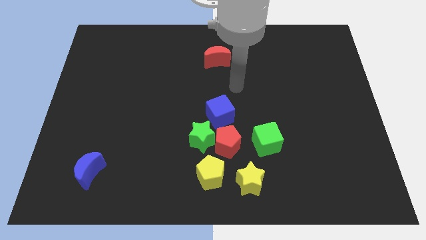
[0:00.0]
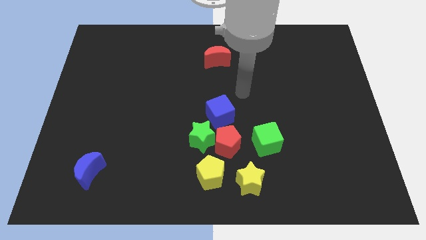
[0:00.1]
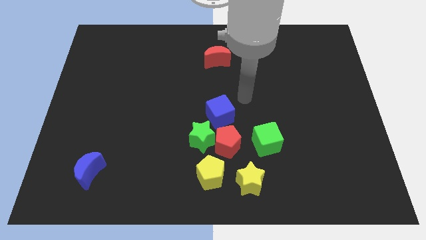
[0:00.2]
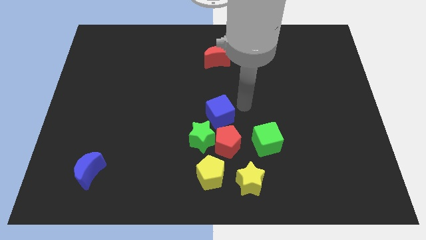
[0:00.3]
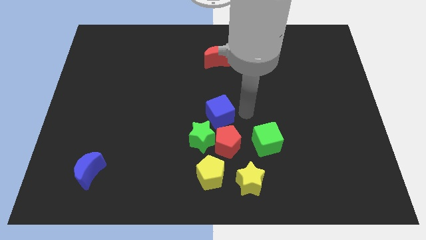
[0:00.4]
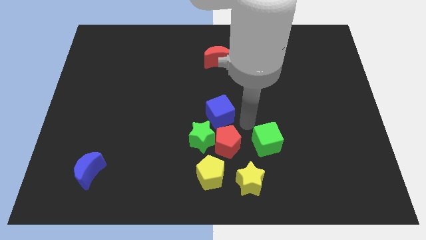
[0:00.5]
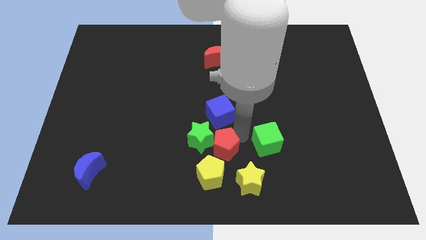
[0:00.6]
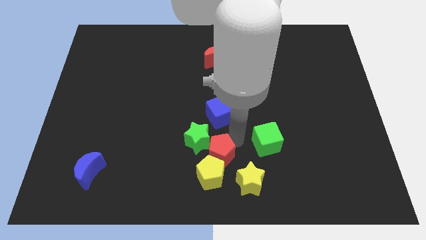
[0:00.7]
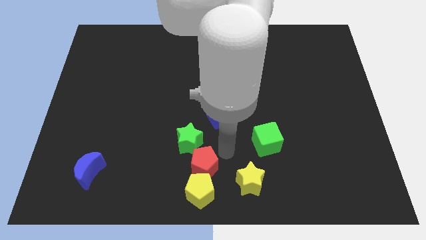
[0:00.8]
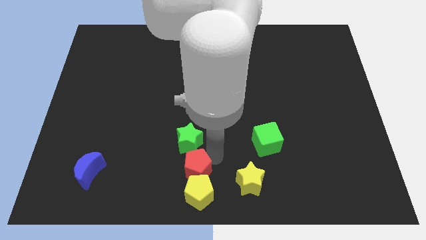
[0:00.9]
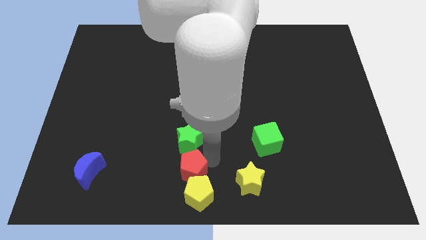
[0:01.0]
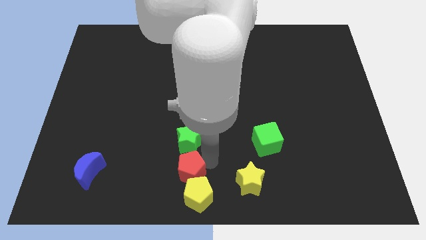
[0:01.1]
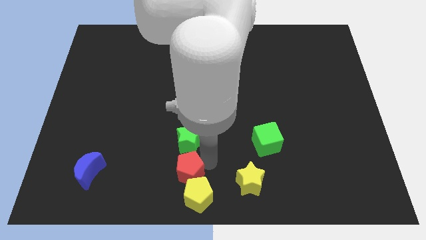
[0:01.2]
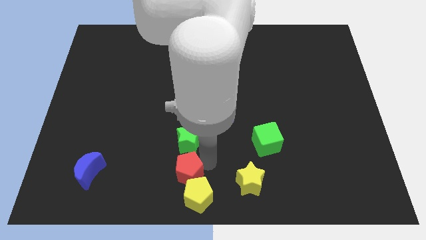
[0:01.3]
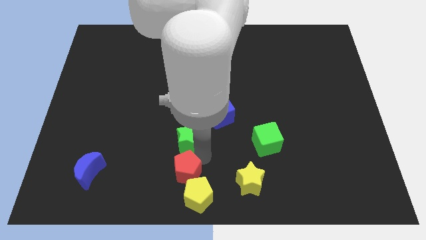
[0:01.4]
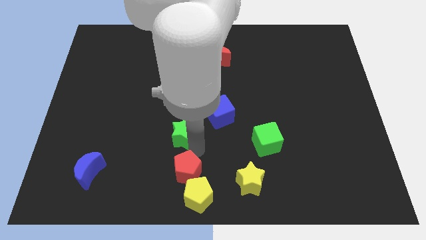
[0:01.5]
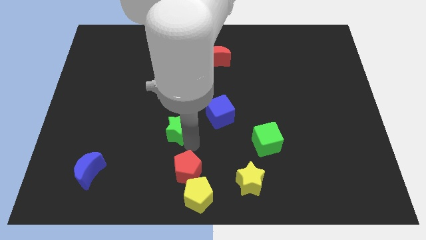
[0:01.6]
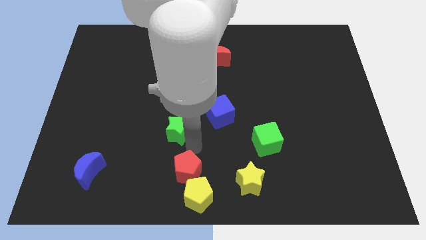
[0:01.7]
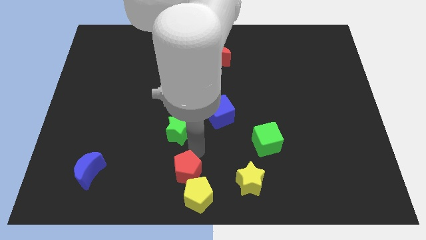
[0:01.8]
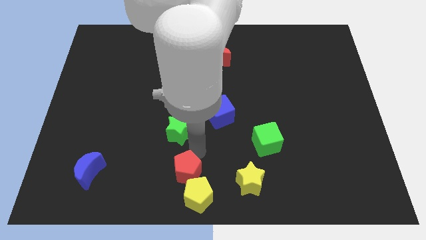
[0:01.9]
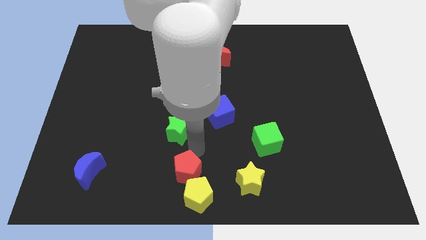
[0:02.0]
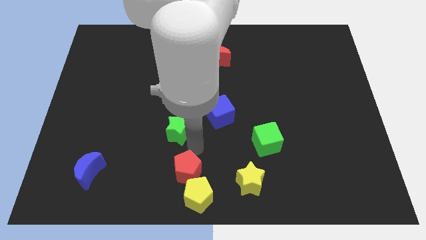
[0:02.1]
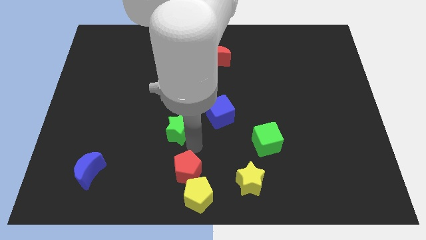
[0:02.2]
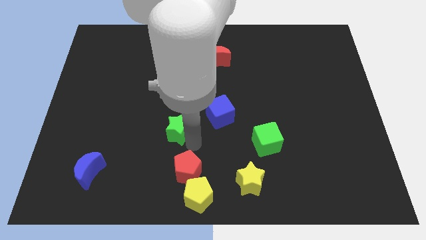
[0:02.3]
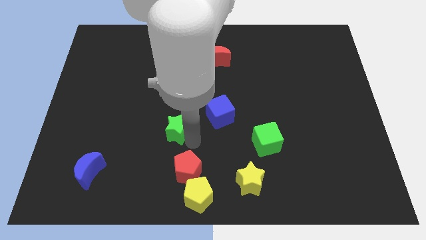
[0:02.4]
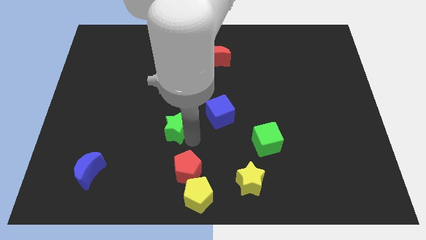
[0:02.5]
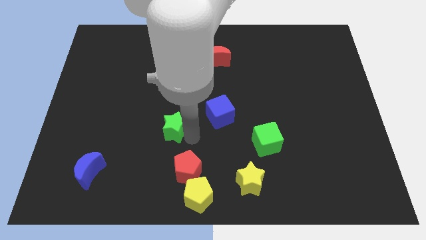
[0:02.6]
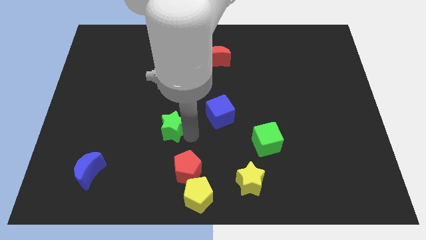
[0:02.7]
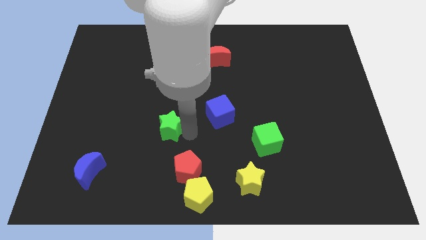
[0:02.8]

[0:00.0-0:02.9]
separate the green star from the red pentagon, blue cube, and yellow pentagon

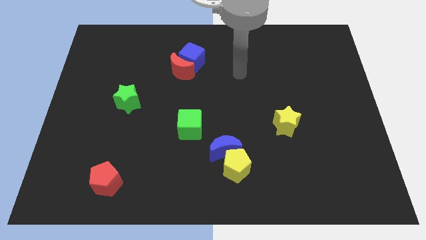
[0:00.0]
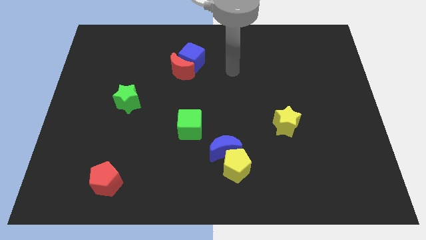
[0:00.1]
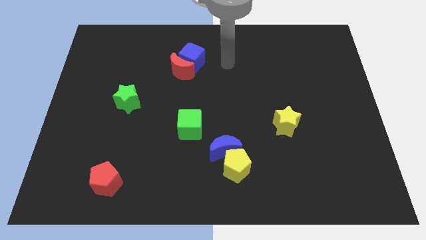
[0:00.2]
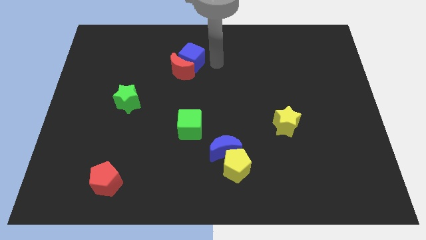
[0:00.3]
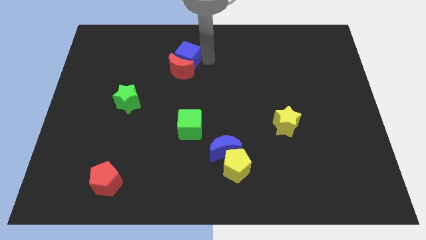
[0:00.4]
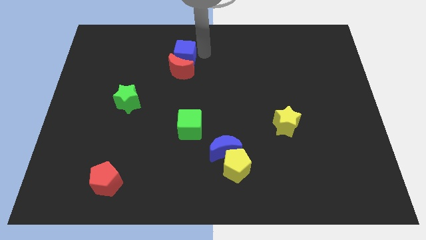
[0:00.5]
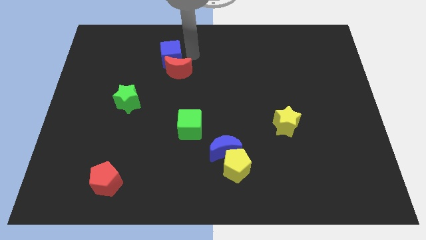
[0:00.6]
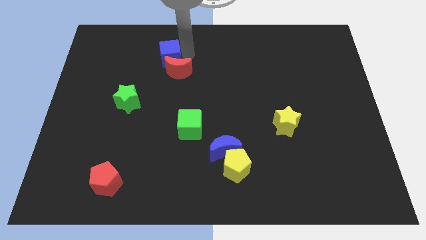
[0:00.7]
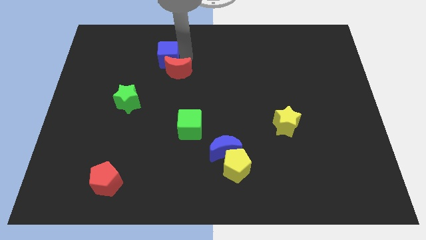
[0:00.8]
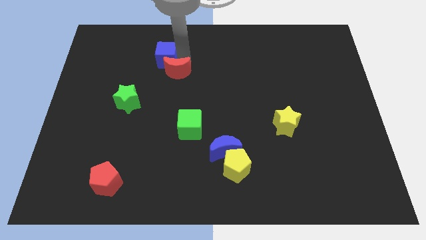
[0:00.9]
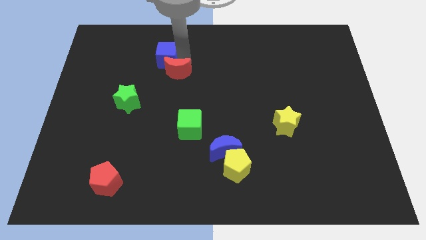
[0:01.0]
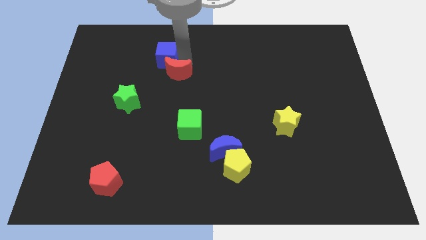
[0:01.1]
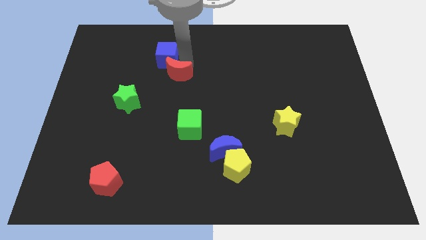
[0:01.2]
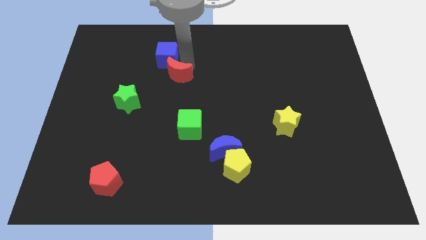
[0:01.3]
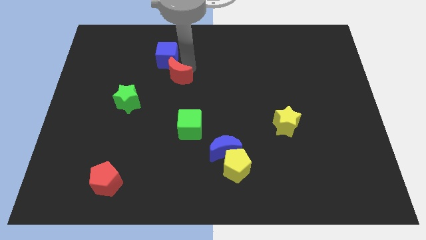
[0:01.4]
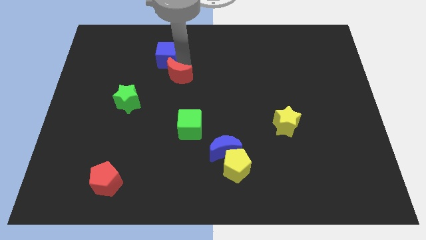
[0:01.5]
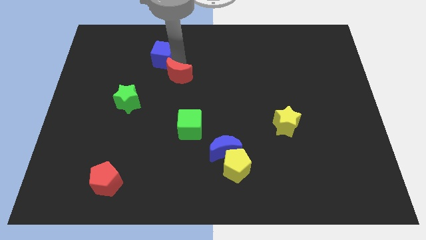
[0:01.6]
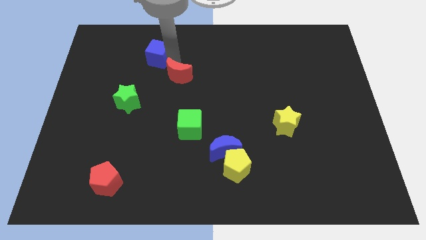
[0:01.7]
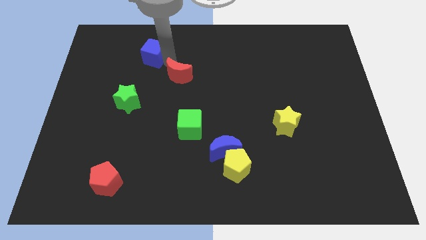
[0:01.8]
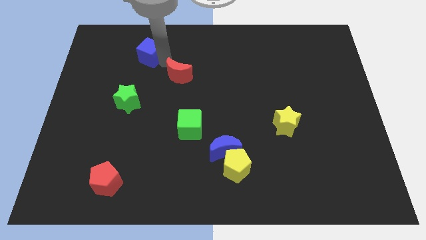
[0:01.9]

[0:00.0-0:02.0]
move the red moon away from the blue cube

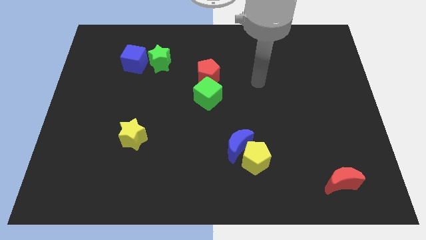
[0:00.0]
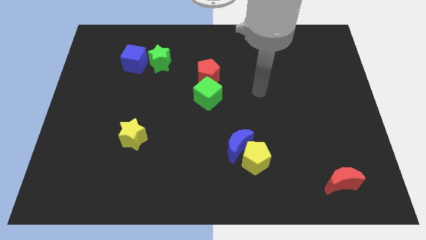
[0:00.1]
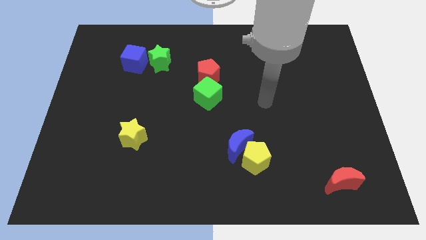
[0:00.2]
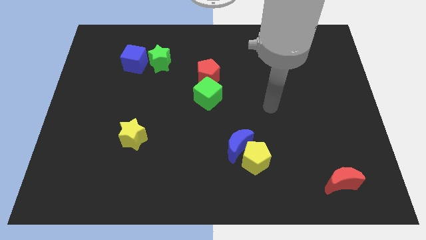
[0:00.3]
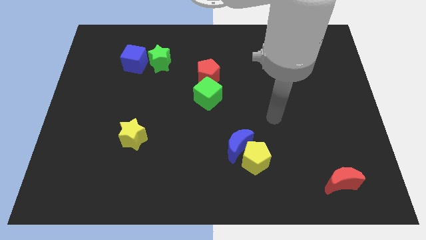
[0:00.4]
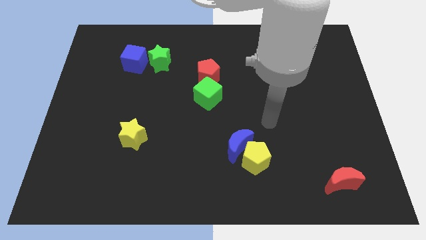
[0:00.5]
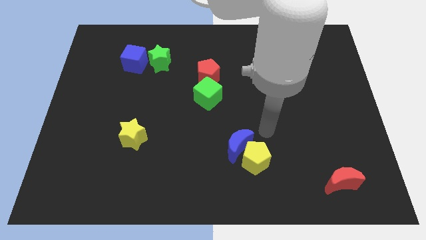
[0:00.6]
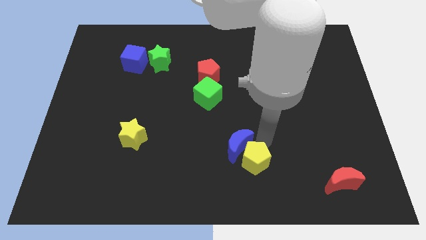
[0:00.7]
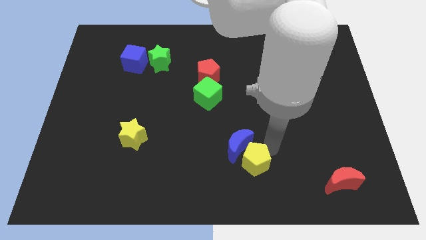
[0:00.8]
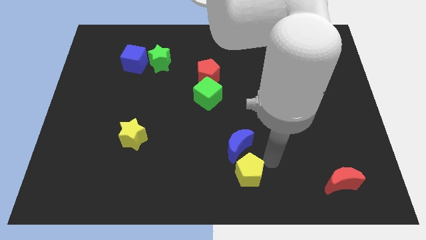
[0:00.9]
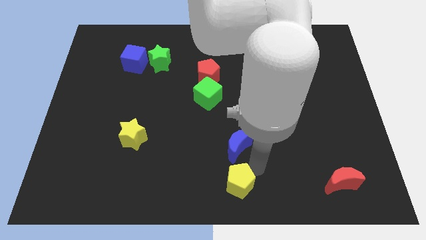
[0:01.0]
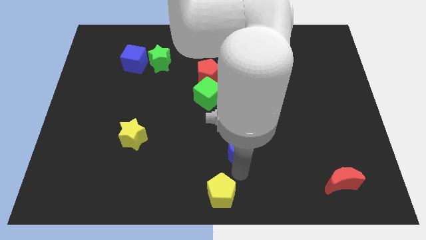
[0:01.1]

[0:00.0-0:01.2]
separate the blue moon from the yellow pentagon

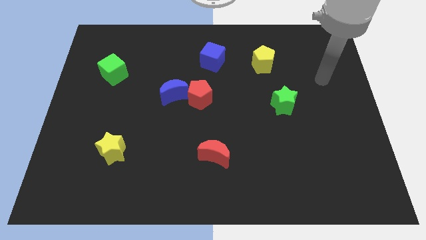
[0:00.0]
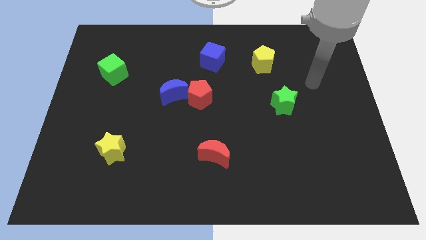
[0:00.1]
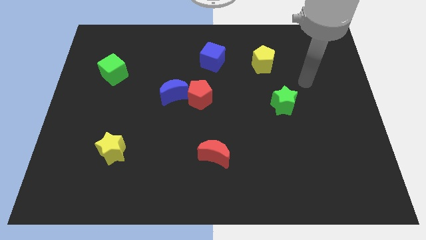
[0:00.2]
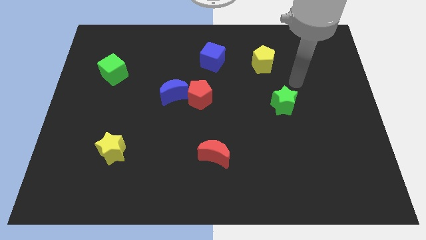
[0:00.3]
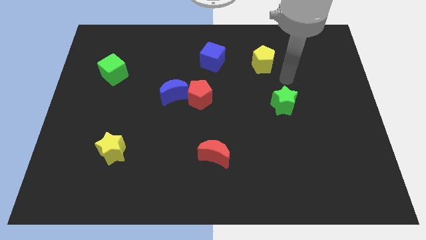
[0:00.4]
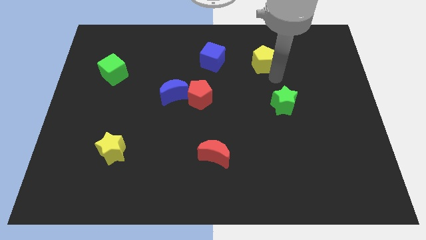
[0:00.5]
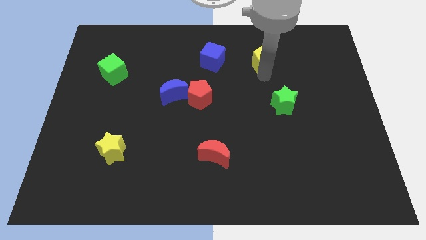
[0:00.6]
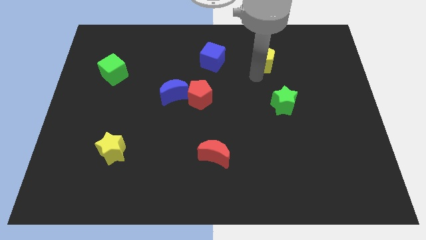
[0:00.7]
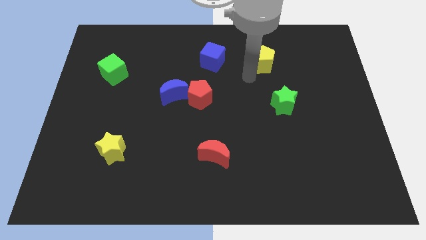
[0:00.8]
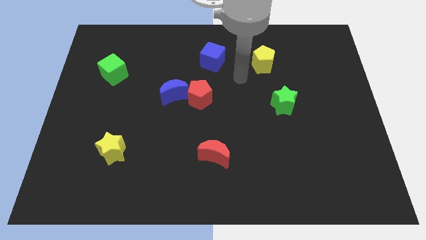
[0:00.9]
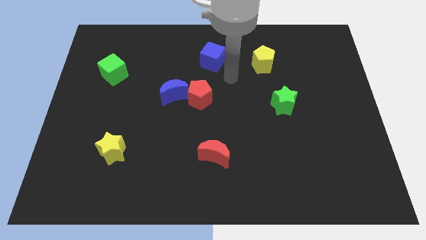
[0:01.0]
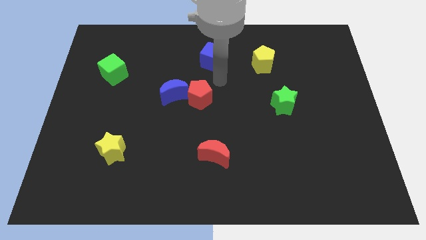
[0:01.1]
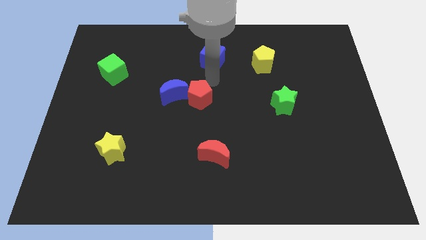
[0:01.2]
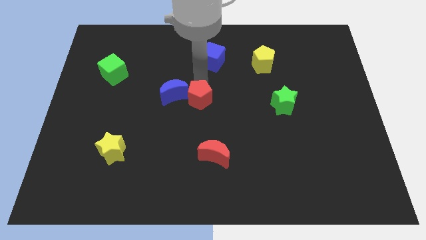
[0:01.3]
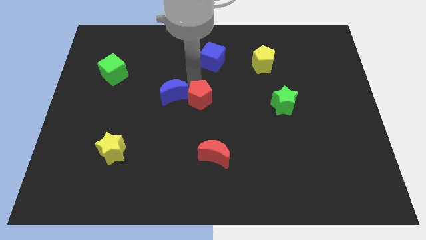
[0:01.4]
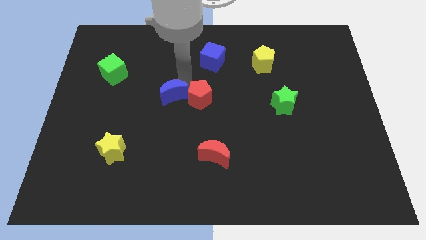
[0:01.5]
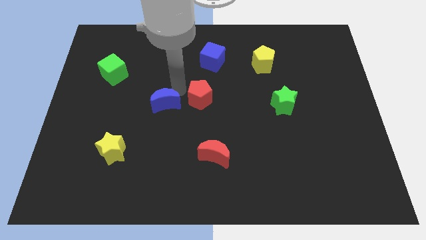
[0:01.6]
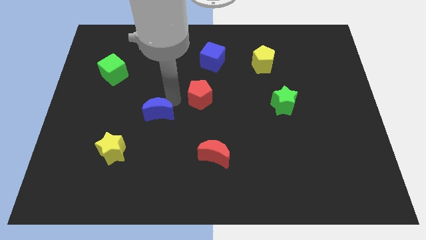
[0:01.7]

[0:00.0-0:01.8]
move the red pentagon away from the blue moon

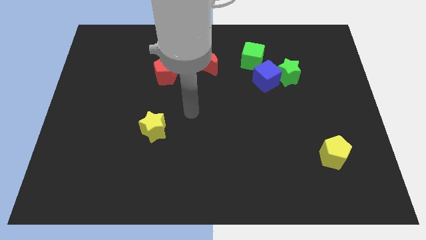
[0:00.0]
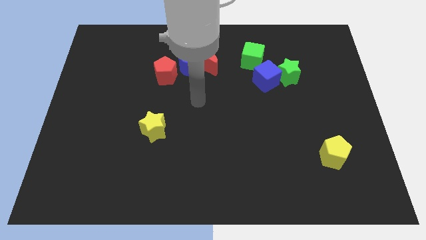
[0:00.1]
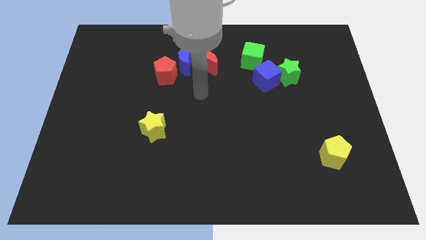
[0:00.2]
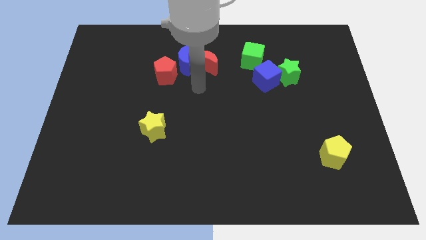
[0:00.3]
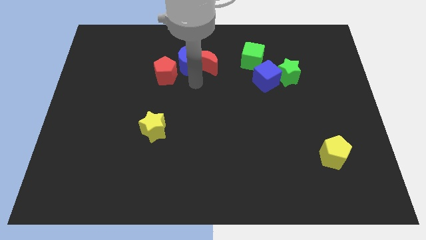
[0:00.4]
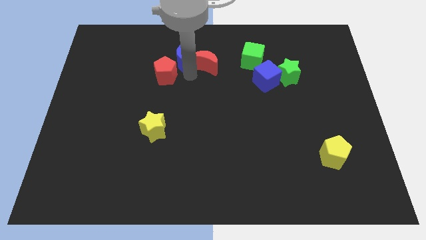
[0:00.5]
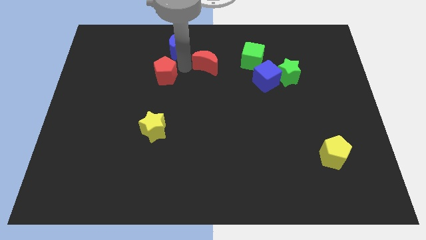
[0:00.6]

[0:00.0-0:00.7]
pull the red moon apart from the blue moon

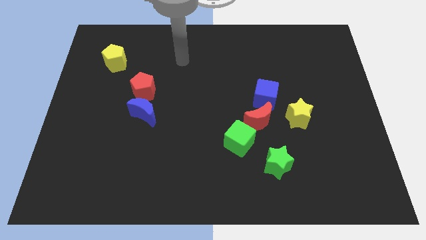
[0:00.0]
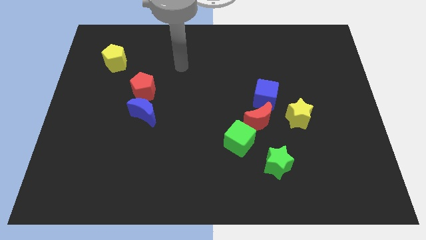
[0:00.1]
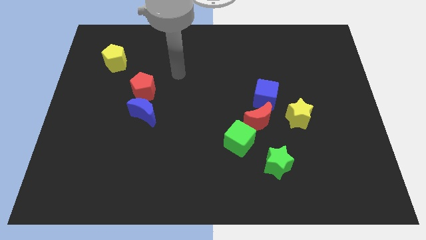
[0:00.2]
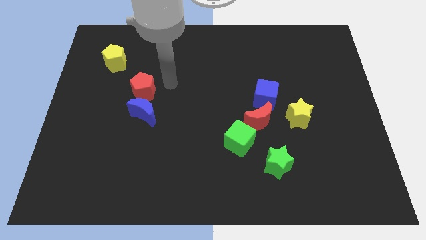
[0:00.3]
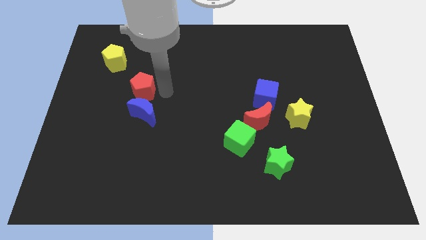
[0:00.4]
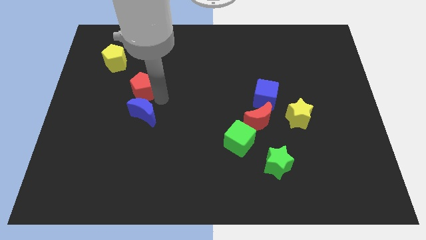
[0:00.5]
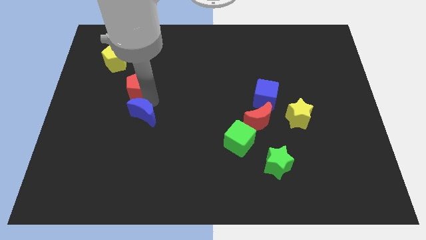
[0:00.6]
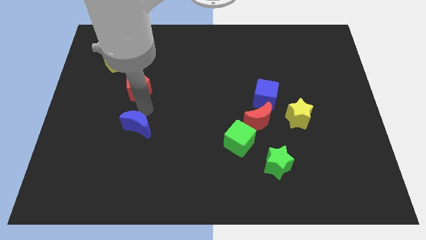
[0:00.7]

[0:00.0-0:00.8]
separate the red pentagon from the blue moon
